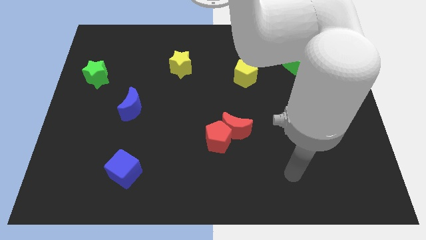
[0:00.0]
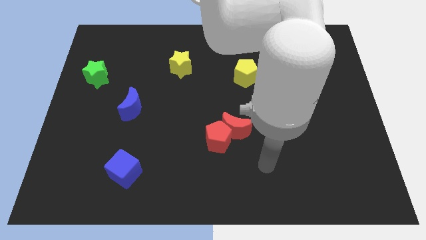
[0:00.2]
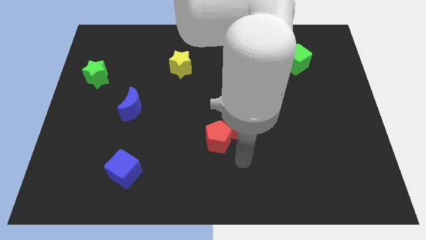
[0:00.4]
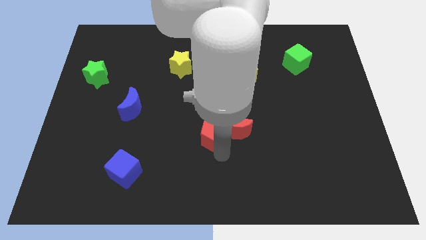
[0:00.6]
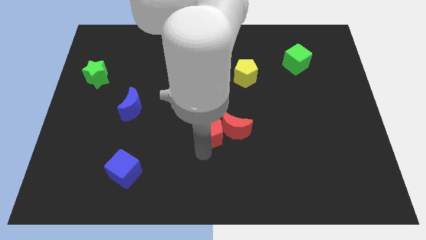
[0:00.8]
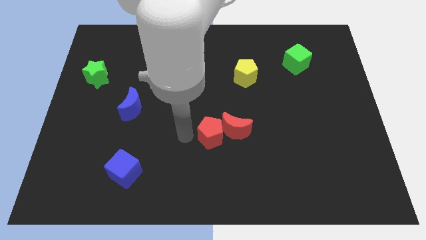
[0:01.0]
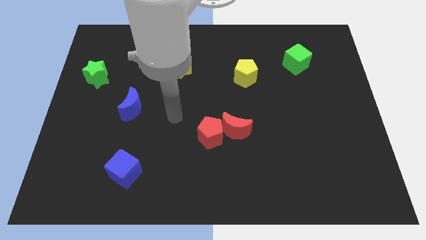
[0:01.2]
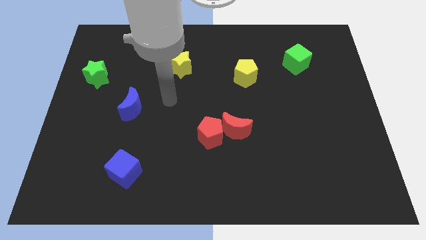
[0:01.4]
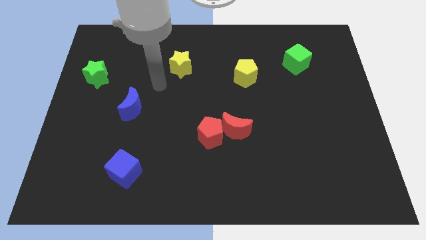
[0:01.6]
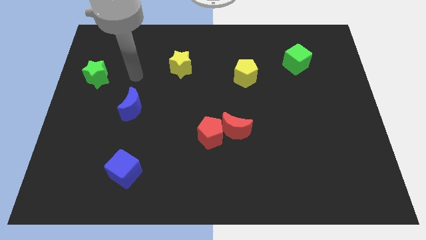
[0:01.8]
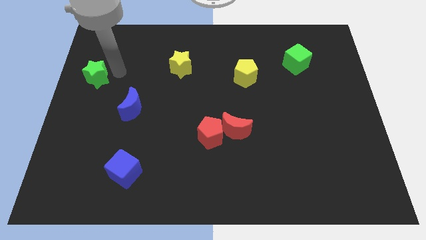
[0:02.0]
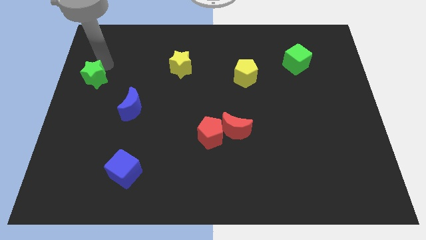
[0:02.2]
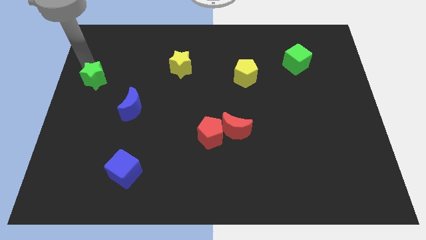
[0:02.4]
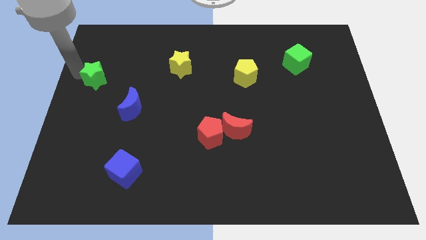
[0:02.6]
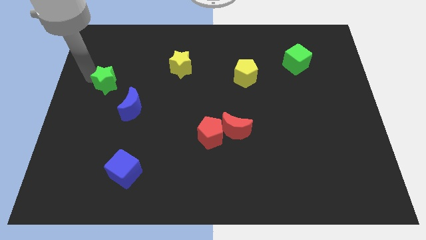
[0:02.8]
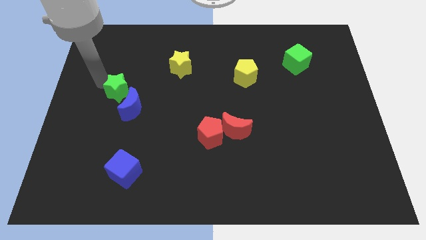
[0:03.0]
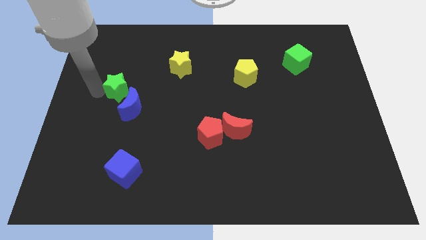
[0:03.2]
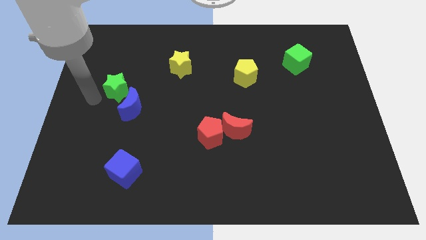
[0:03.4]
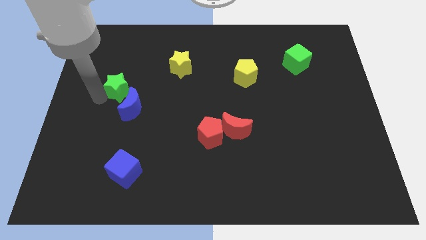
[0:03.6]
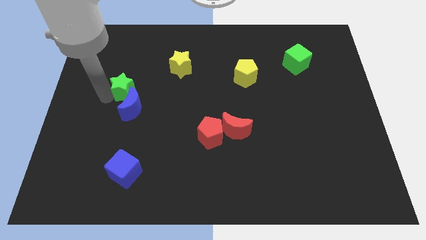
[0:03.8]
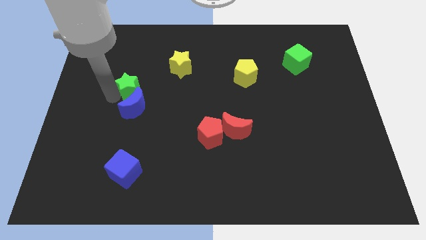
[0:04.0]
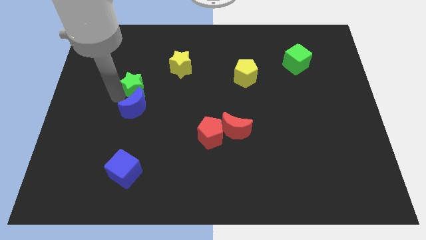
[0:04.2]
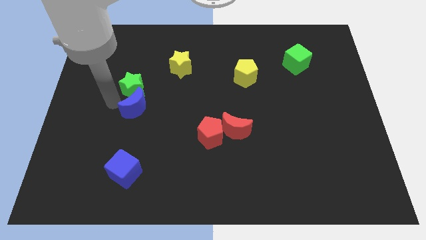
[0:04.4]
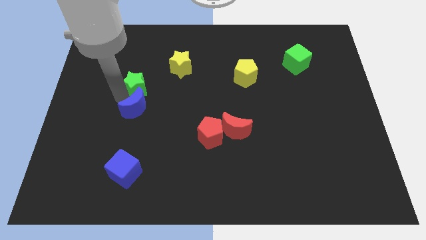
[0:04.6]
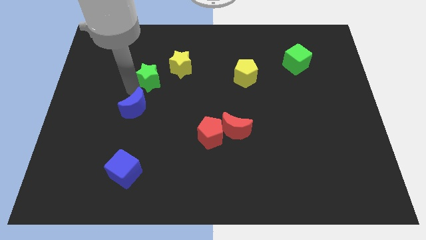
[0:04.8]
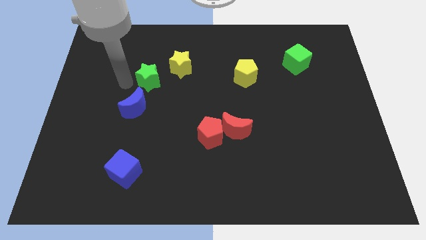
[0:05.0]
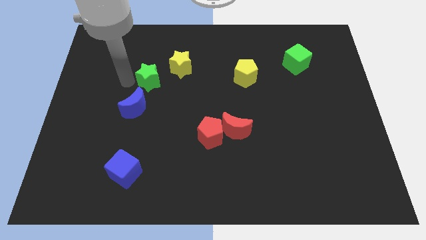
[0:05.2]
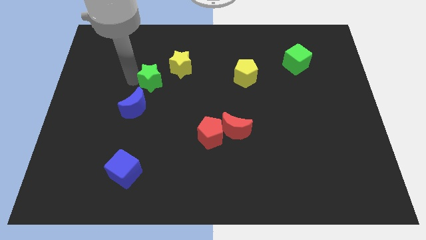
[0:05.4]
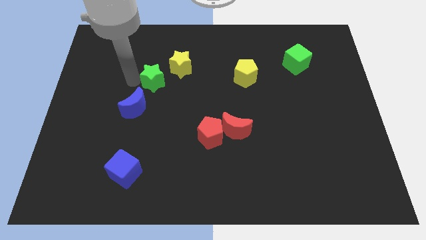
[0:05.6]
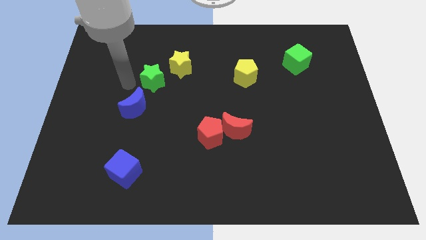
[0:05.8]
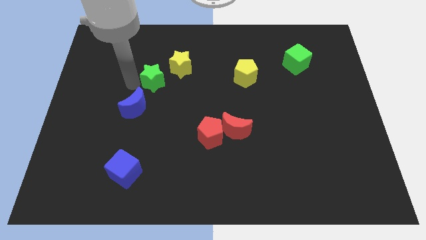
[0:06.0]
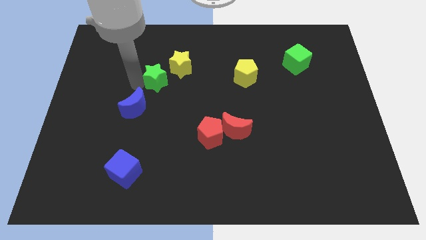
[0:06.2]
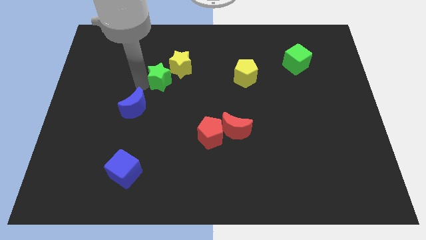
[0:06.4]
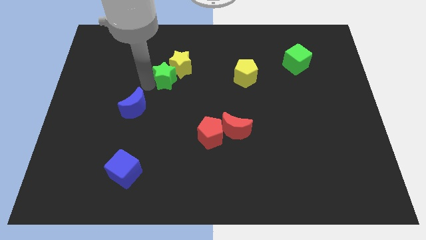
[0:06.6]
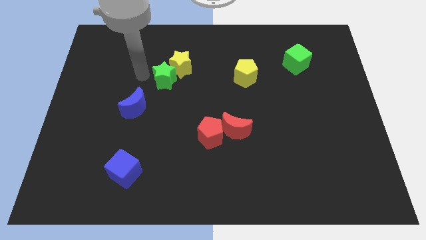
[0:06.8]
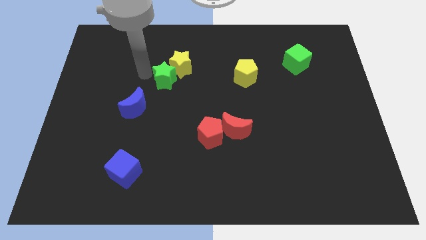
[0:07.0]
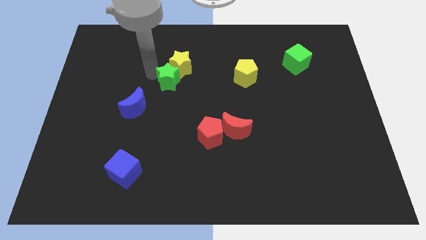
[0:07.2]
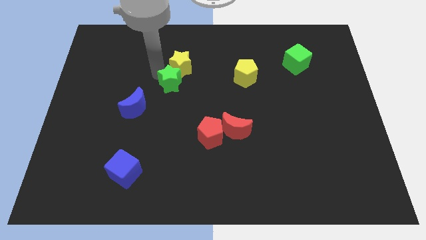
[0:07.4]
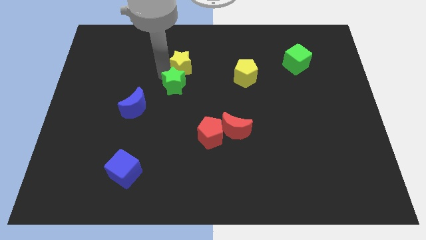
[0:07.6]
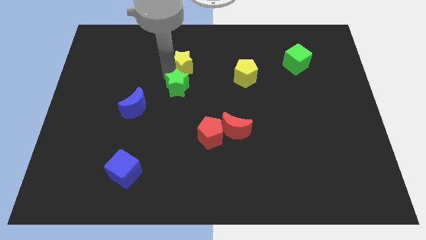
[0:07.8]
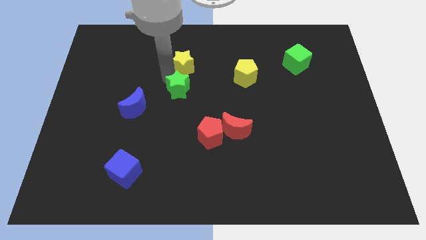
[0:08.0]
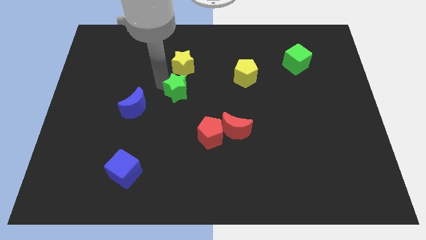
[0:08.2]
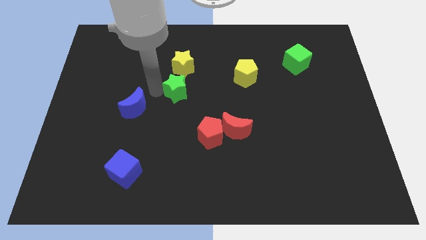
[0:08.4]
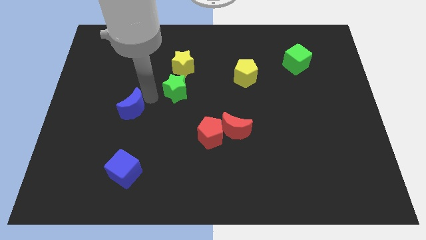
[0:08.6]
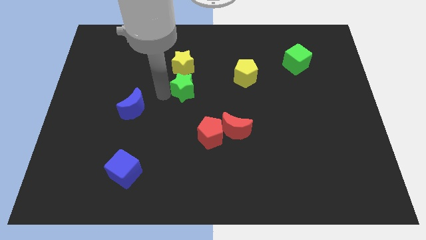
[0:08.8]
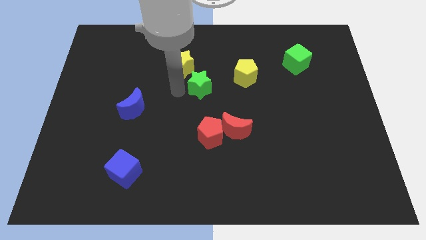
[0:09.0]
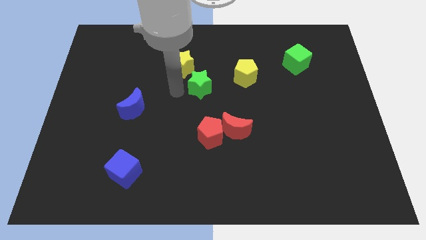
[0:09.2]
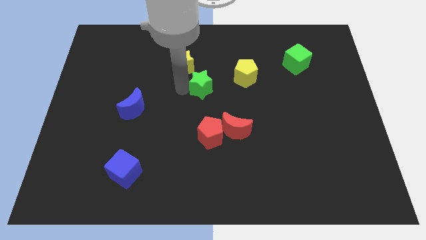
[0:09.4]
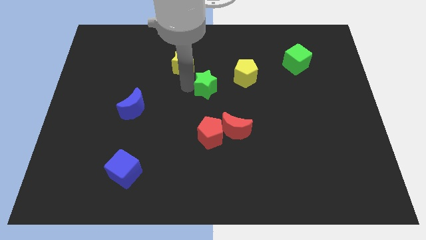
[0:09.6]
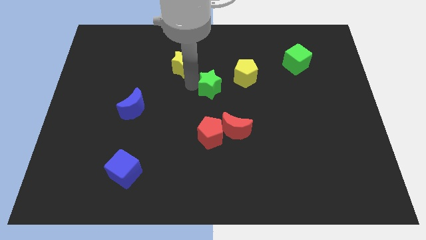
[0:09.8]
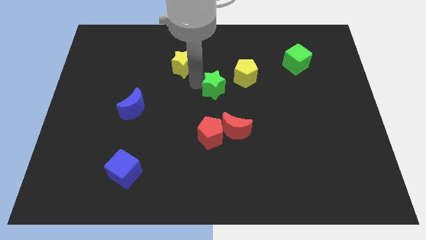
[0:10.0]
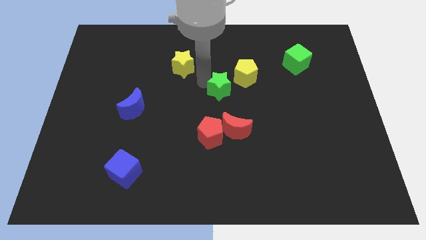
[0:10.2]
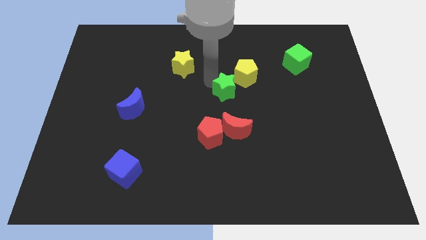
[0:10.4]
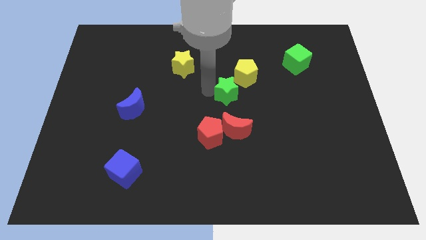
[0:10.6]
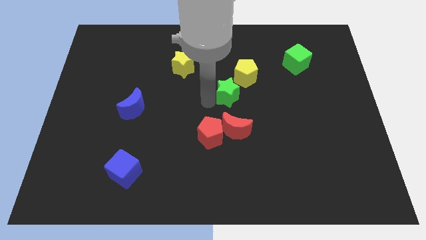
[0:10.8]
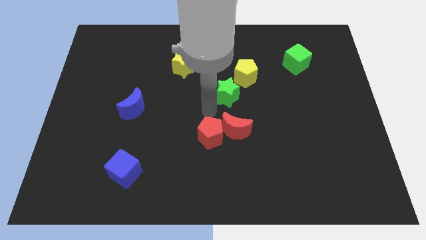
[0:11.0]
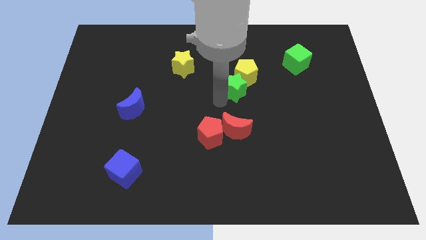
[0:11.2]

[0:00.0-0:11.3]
slide the green star towards the yellow pentagon

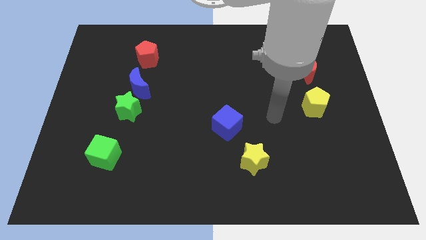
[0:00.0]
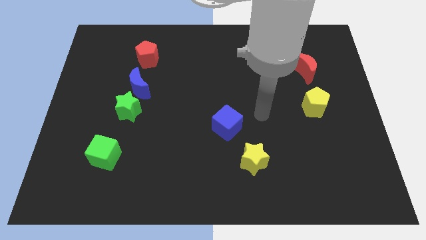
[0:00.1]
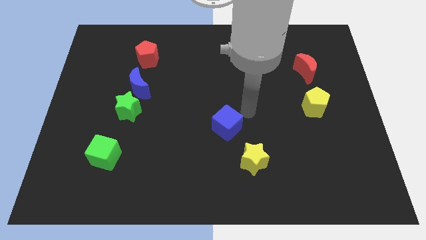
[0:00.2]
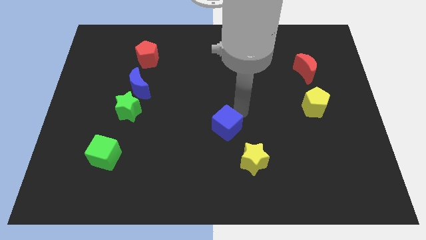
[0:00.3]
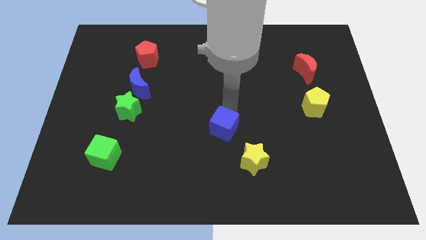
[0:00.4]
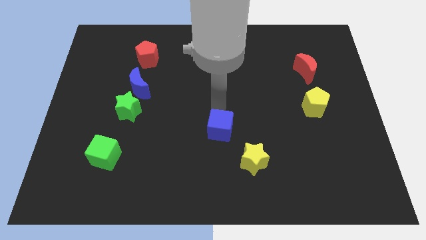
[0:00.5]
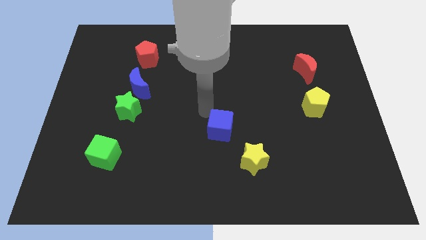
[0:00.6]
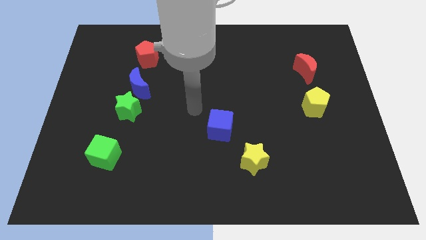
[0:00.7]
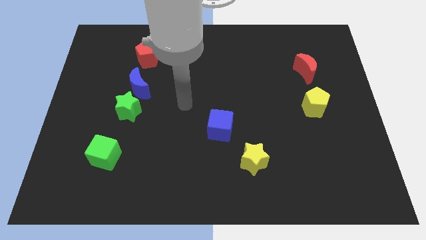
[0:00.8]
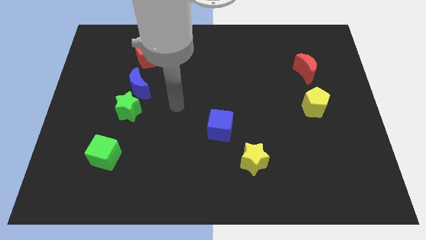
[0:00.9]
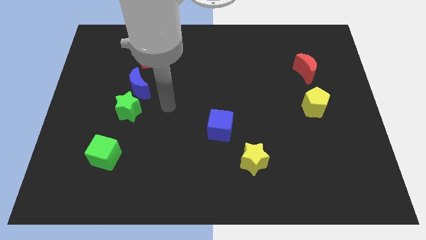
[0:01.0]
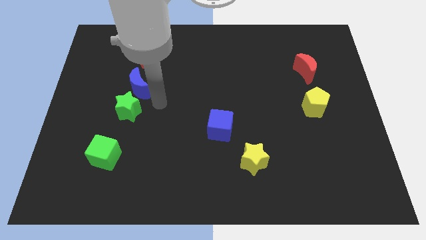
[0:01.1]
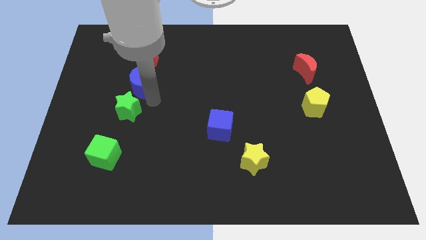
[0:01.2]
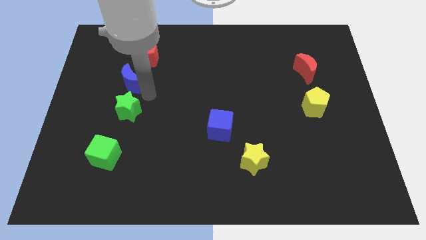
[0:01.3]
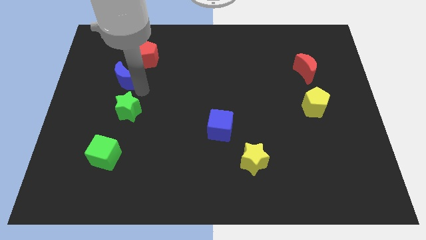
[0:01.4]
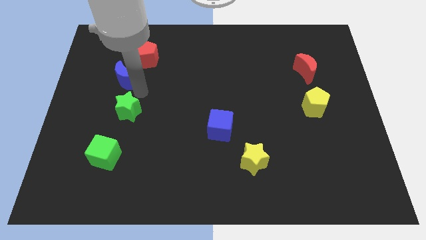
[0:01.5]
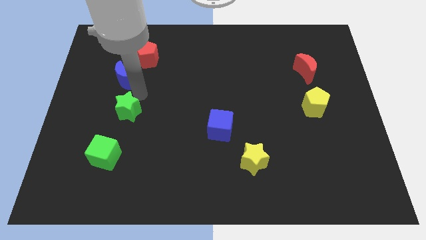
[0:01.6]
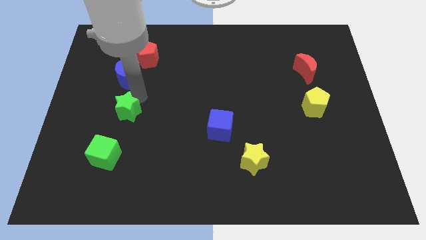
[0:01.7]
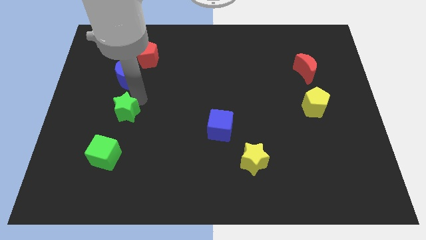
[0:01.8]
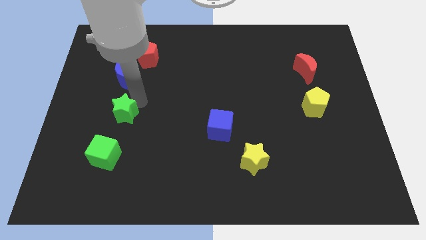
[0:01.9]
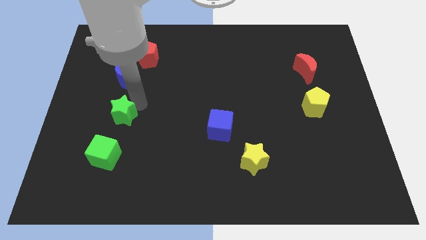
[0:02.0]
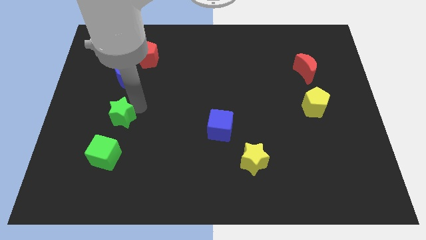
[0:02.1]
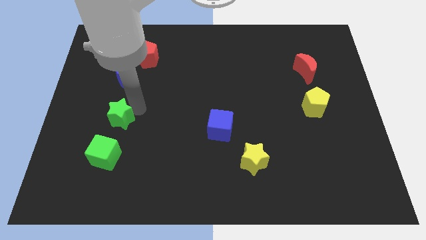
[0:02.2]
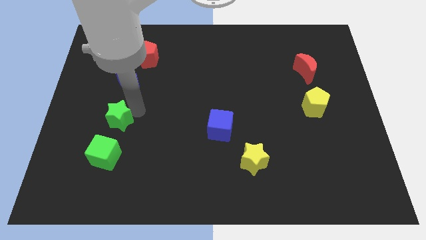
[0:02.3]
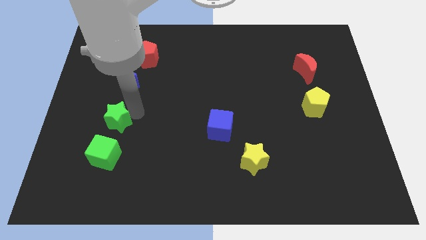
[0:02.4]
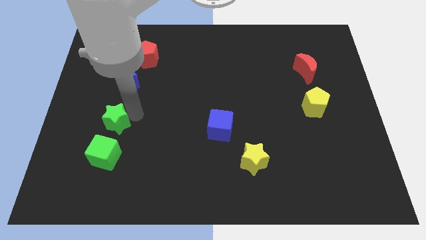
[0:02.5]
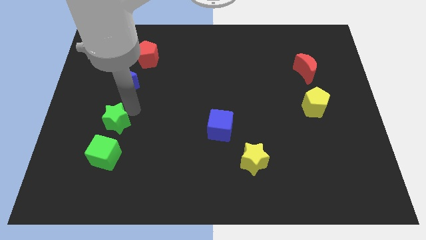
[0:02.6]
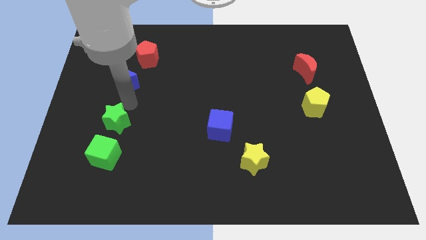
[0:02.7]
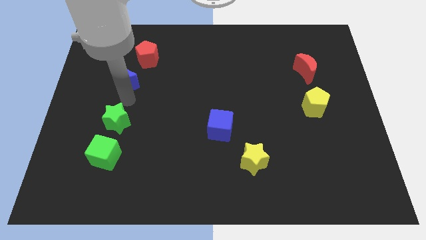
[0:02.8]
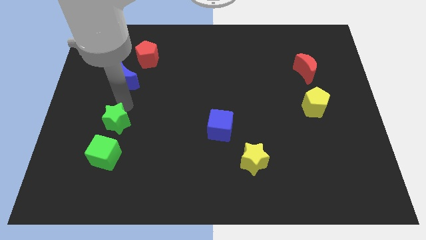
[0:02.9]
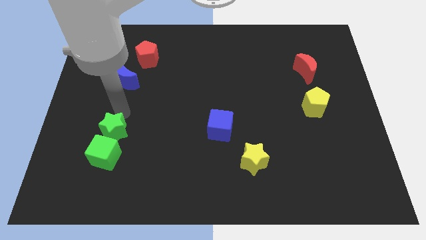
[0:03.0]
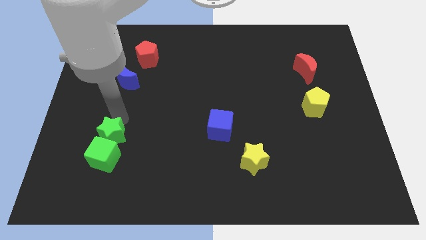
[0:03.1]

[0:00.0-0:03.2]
push the green star towards the green cube
